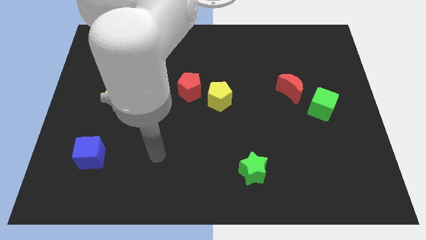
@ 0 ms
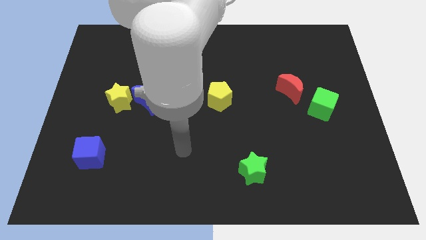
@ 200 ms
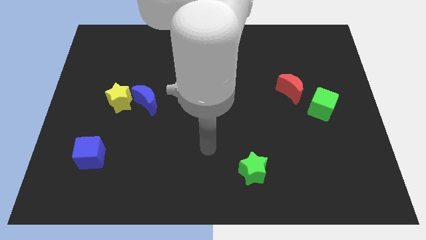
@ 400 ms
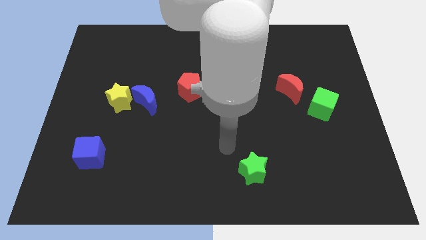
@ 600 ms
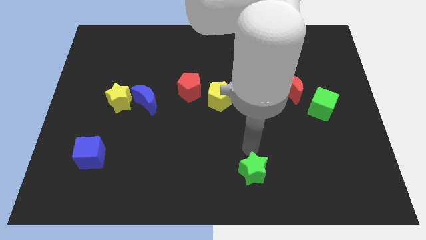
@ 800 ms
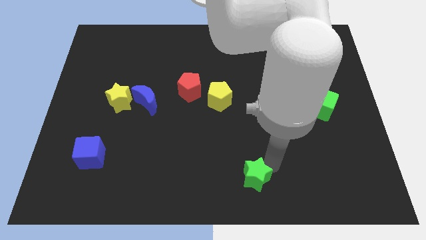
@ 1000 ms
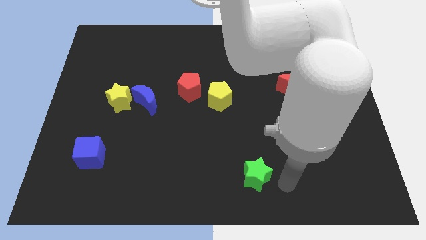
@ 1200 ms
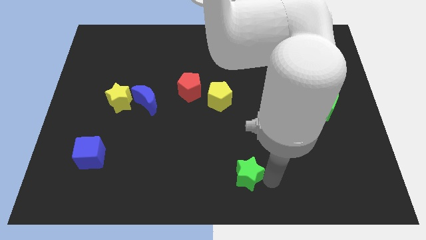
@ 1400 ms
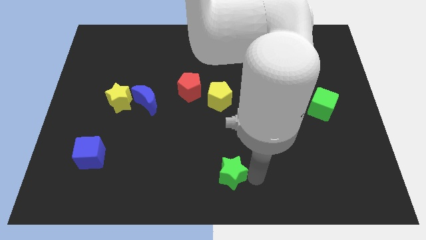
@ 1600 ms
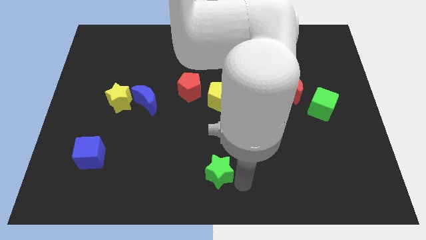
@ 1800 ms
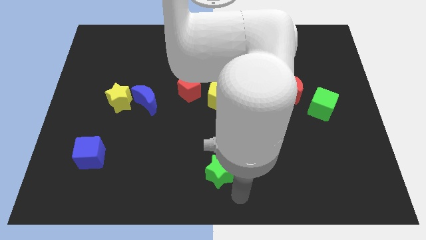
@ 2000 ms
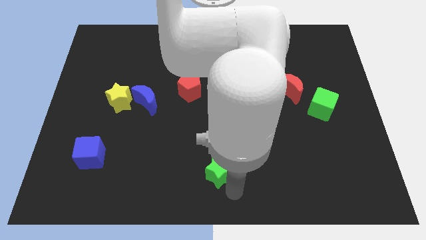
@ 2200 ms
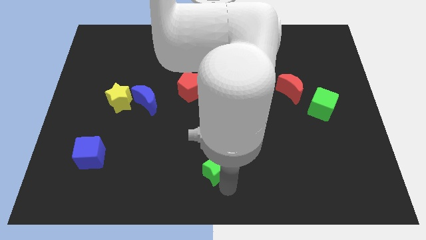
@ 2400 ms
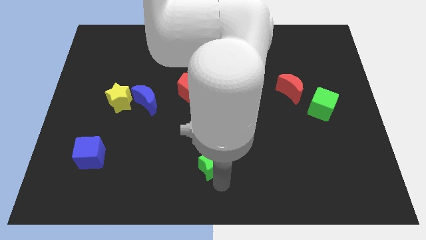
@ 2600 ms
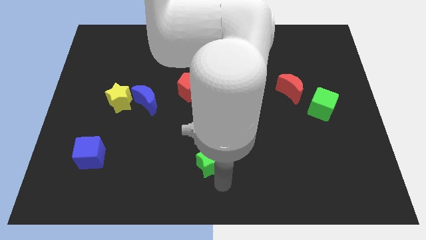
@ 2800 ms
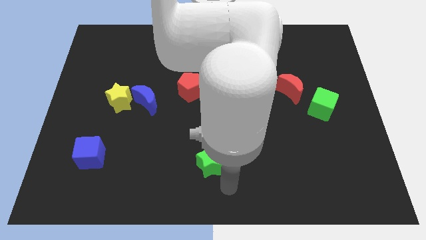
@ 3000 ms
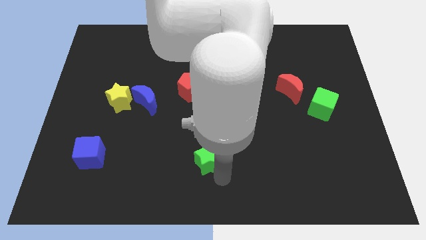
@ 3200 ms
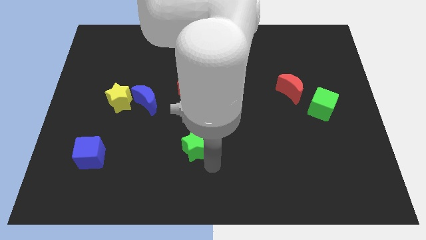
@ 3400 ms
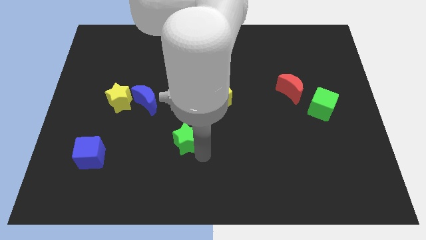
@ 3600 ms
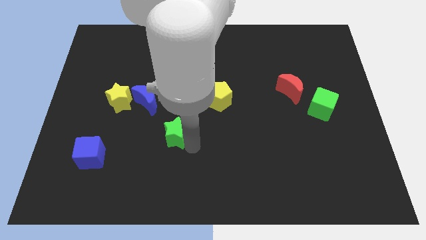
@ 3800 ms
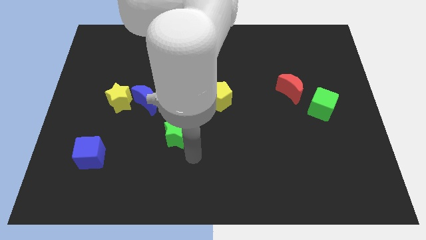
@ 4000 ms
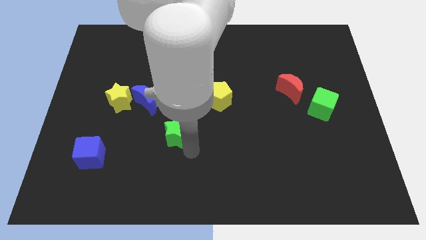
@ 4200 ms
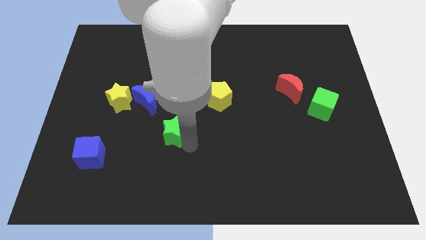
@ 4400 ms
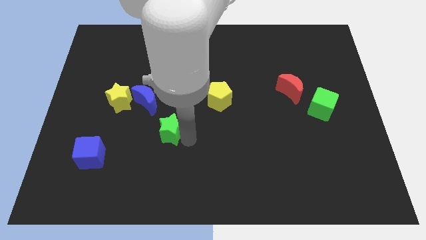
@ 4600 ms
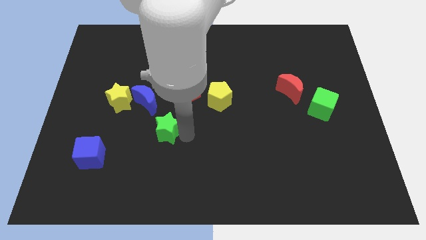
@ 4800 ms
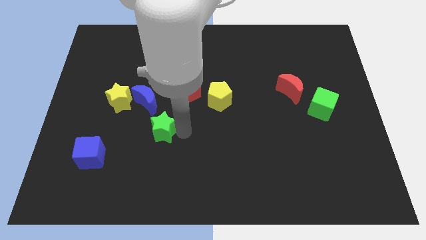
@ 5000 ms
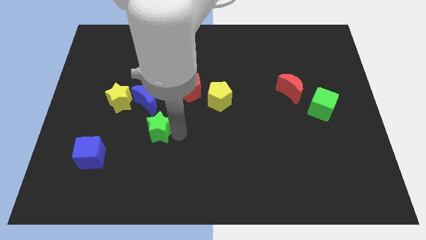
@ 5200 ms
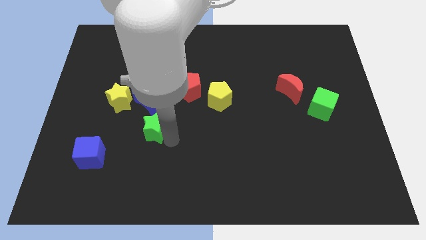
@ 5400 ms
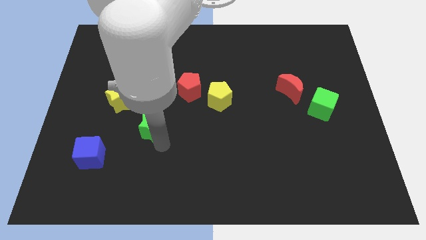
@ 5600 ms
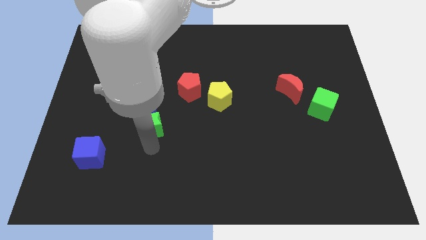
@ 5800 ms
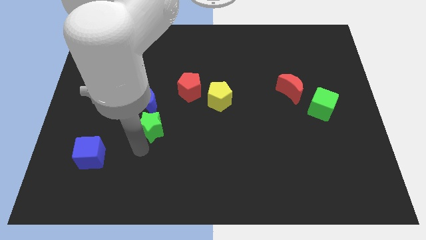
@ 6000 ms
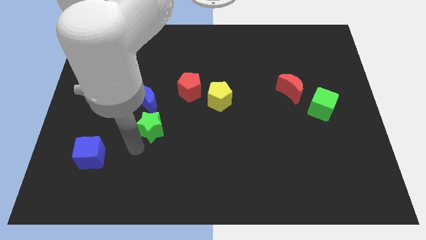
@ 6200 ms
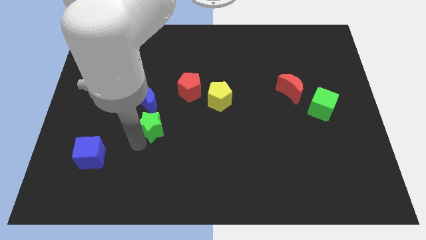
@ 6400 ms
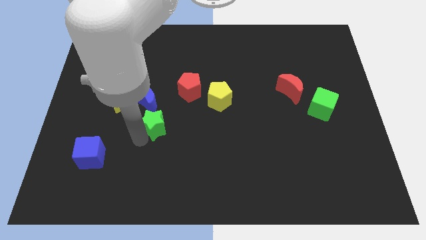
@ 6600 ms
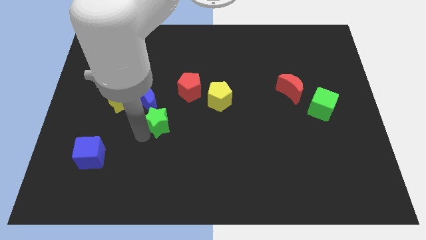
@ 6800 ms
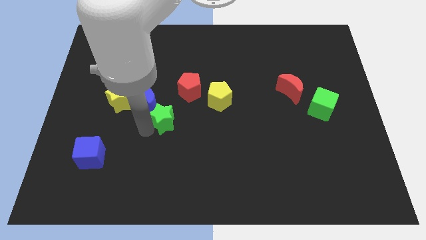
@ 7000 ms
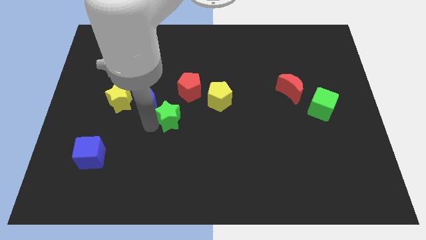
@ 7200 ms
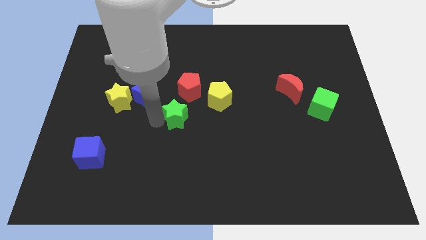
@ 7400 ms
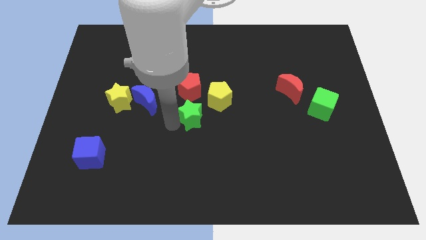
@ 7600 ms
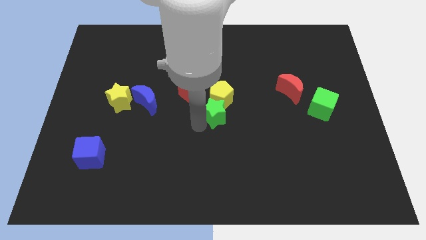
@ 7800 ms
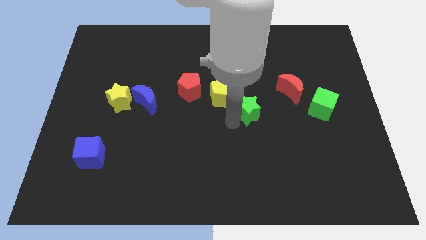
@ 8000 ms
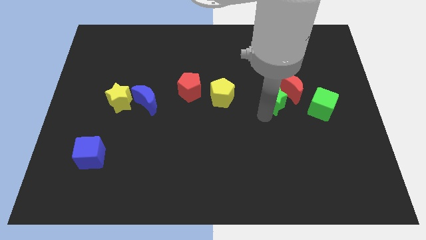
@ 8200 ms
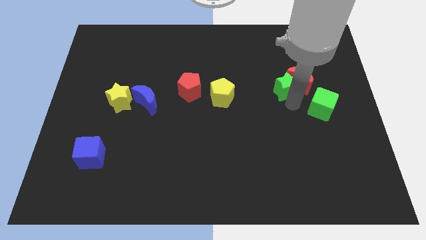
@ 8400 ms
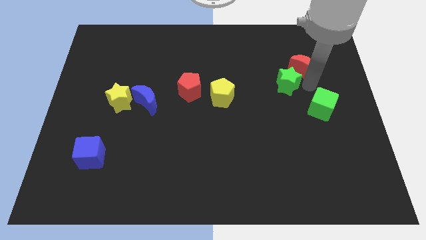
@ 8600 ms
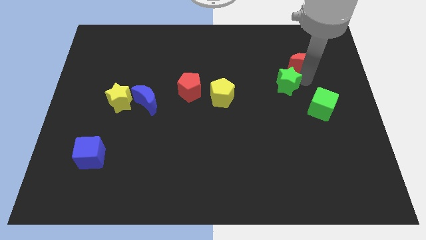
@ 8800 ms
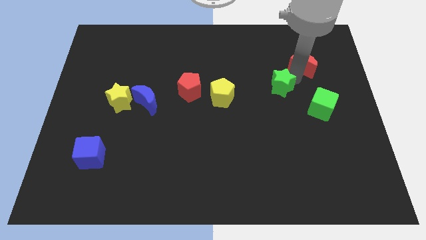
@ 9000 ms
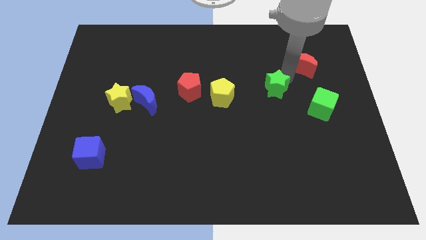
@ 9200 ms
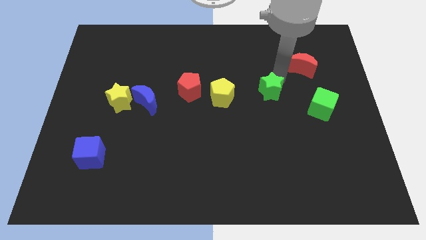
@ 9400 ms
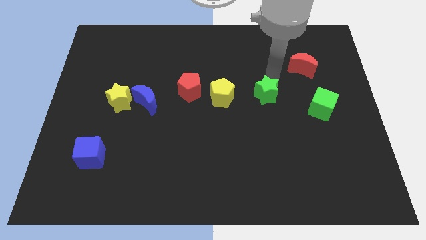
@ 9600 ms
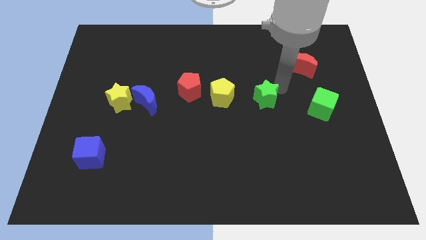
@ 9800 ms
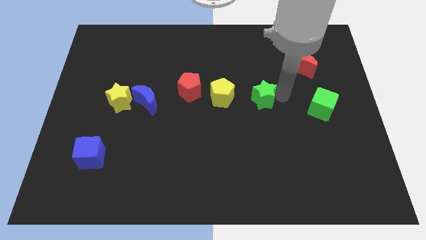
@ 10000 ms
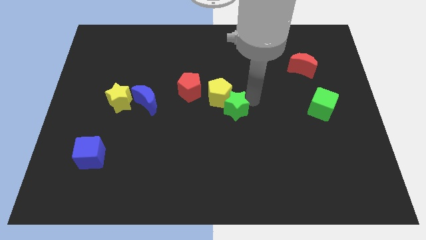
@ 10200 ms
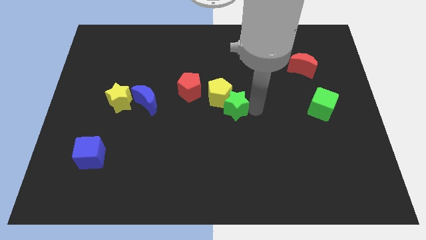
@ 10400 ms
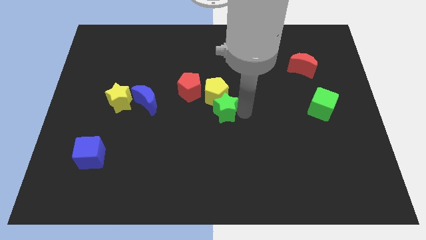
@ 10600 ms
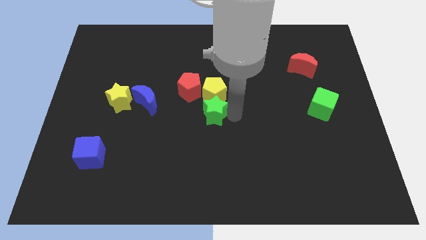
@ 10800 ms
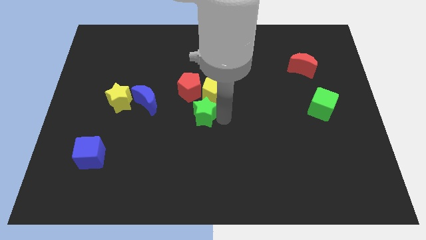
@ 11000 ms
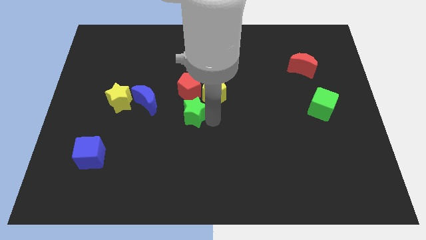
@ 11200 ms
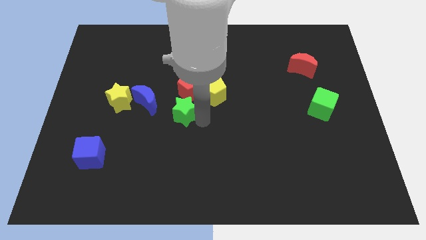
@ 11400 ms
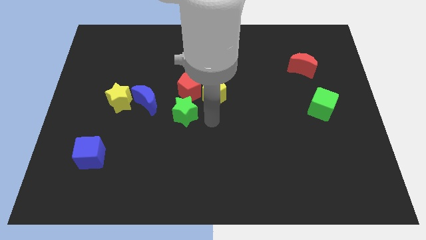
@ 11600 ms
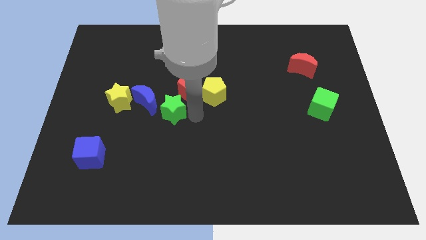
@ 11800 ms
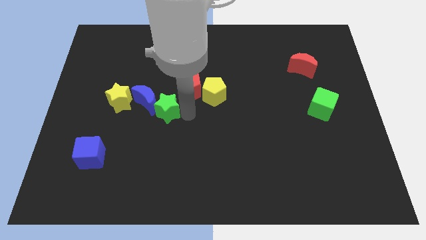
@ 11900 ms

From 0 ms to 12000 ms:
slide the green star to the blue moon

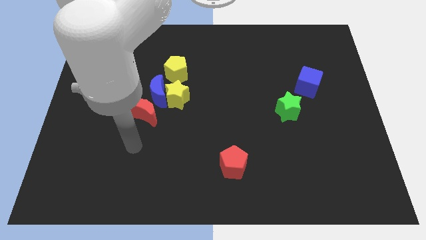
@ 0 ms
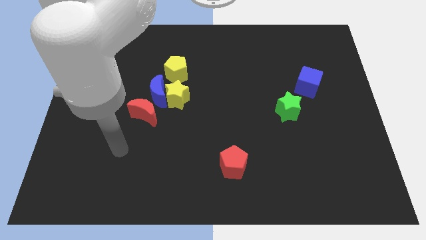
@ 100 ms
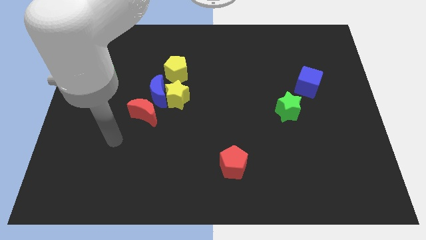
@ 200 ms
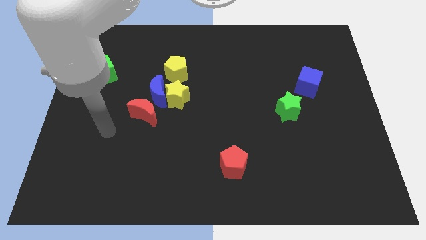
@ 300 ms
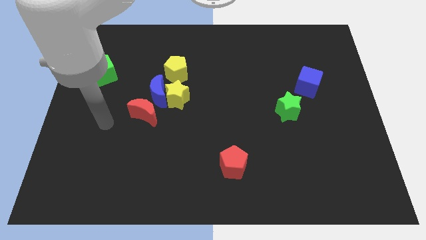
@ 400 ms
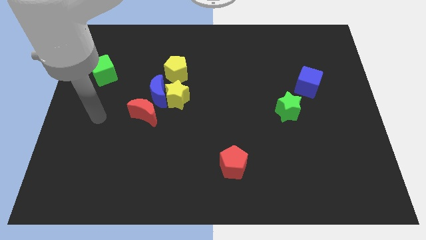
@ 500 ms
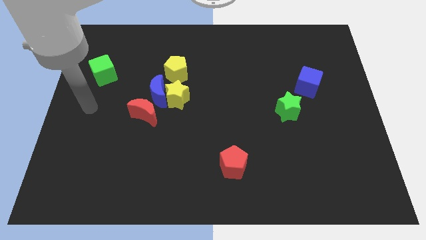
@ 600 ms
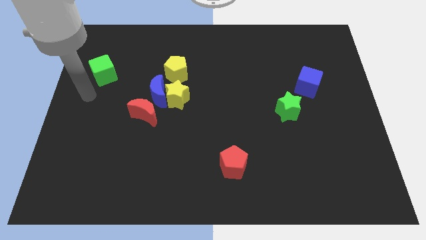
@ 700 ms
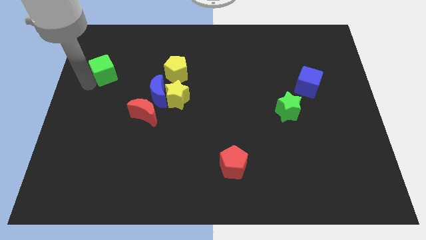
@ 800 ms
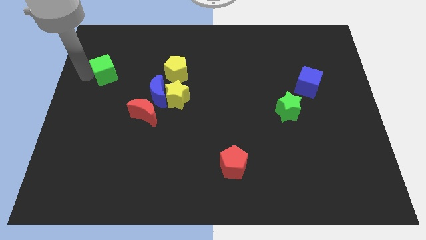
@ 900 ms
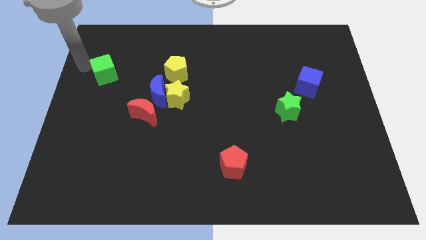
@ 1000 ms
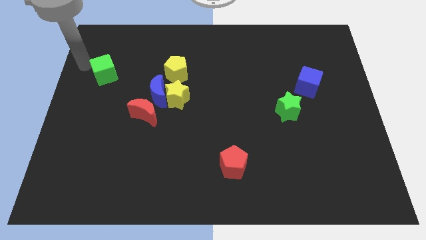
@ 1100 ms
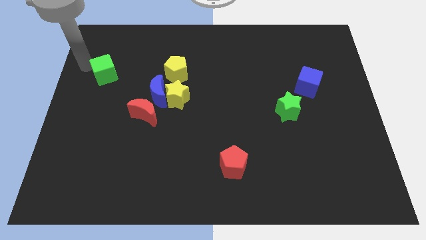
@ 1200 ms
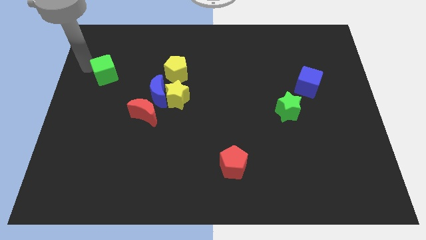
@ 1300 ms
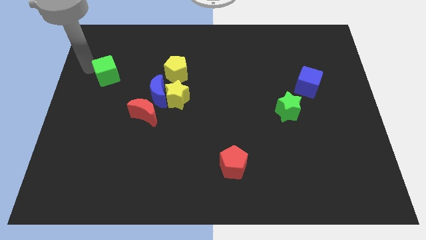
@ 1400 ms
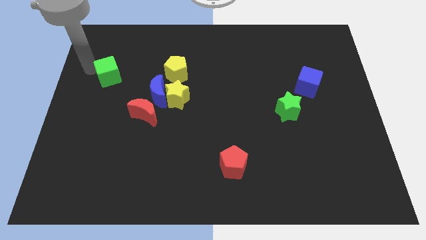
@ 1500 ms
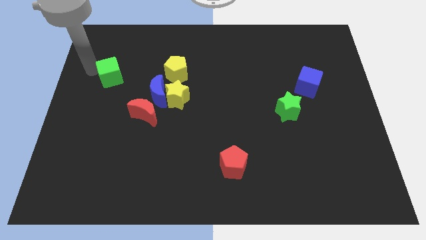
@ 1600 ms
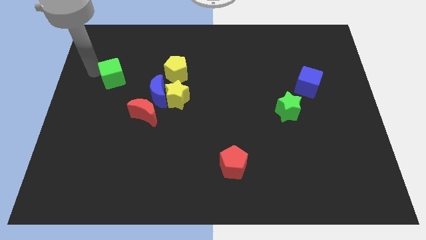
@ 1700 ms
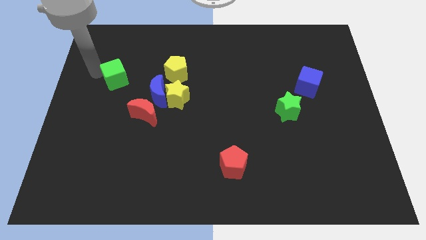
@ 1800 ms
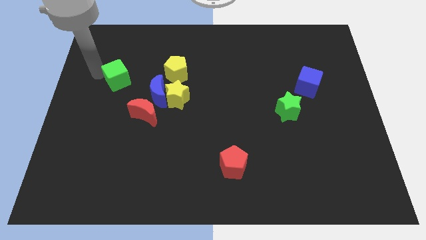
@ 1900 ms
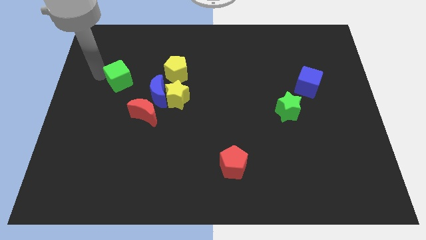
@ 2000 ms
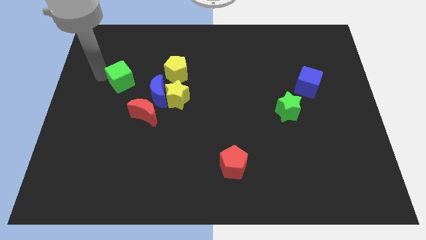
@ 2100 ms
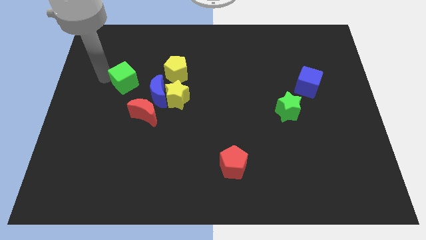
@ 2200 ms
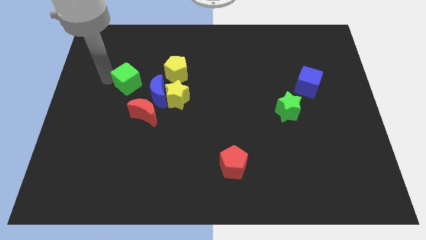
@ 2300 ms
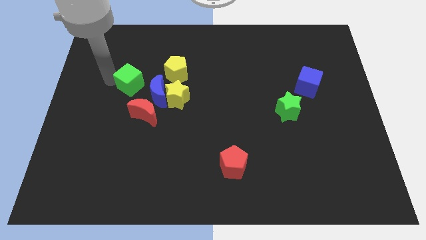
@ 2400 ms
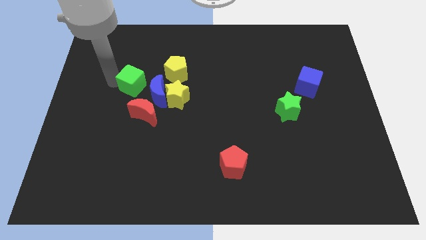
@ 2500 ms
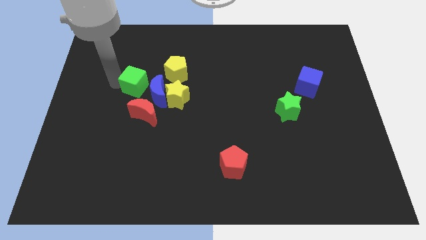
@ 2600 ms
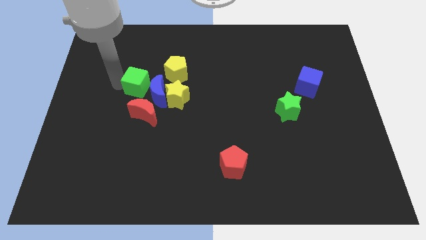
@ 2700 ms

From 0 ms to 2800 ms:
push the green cube towards the blue moon
